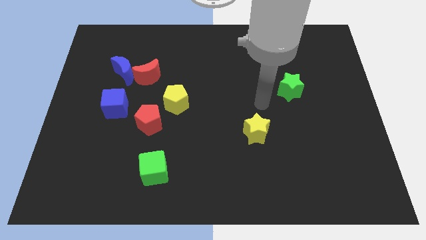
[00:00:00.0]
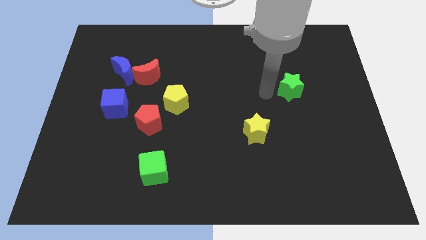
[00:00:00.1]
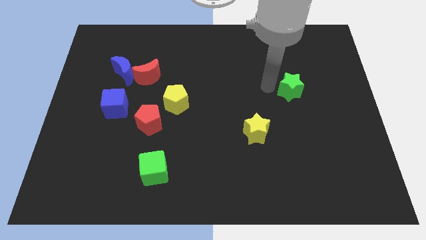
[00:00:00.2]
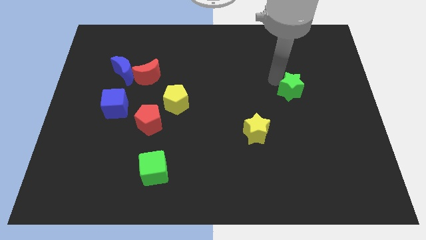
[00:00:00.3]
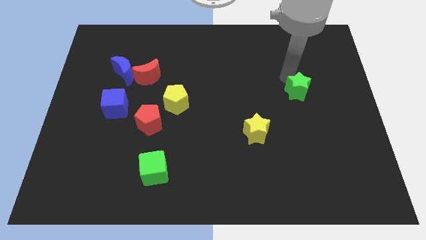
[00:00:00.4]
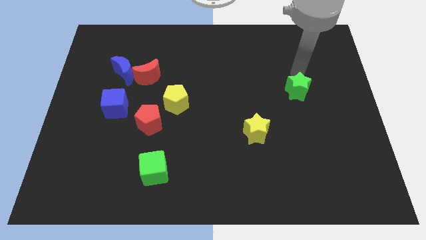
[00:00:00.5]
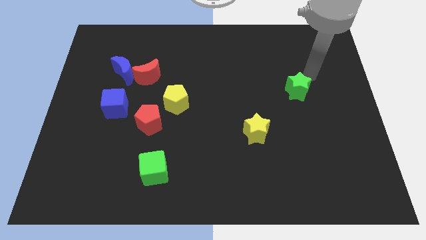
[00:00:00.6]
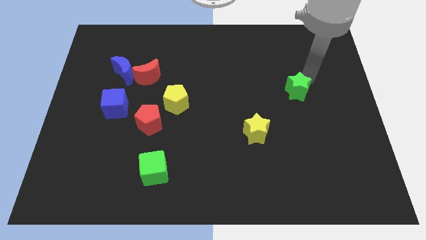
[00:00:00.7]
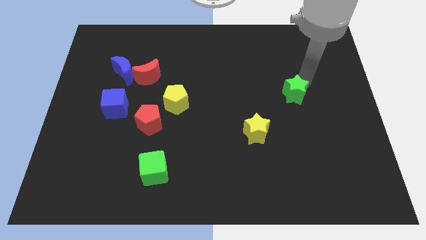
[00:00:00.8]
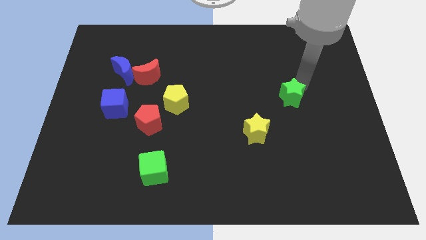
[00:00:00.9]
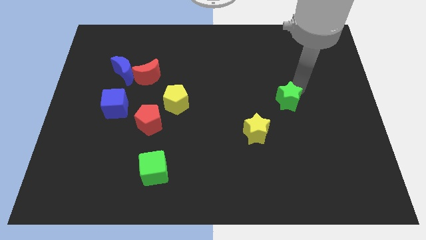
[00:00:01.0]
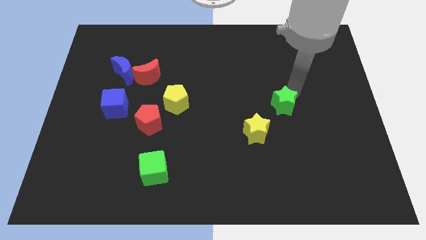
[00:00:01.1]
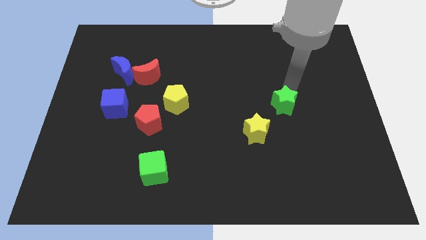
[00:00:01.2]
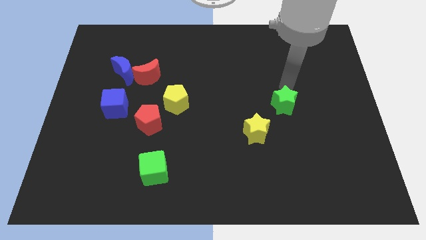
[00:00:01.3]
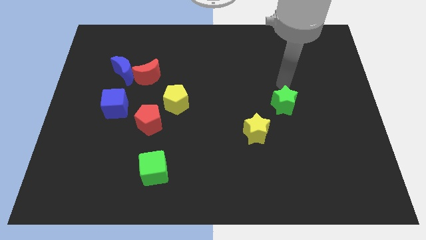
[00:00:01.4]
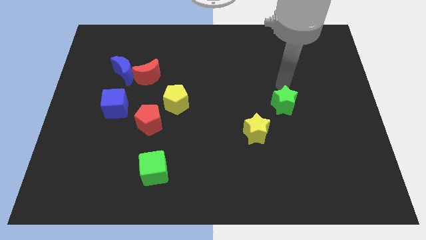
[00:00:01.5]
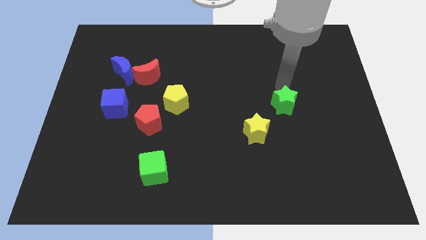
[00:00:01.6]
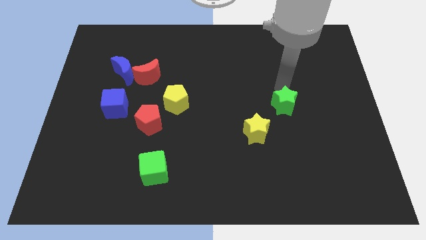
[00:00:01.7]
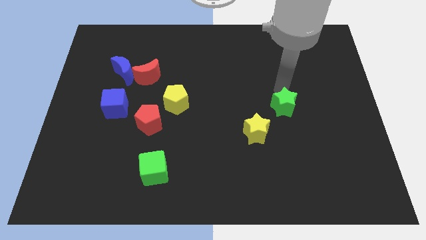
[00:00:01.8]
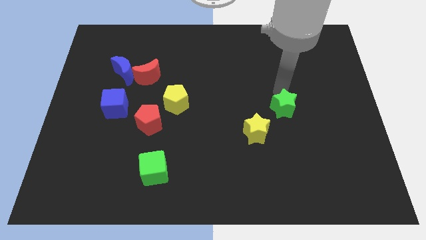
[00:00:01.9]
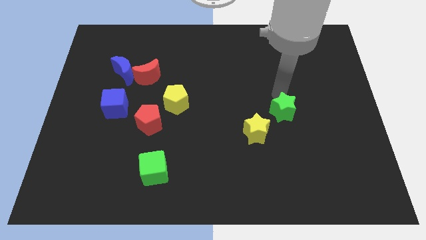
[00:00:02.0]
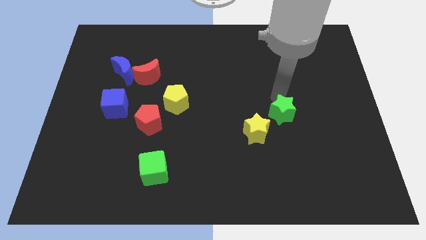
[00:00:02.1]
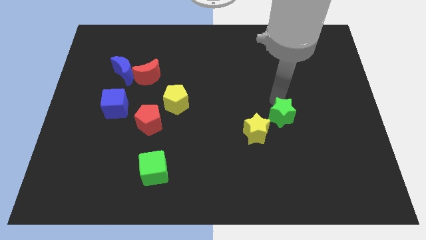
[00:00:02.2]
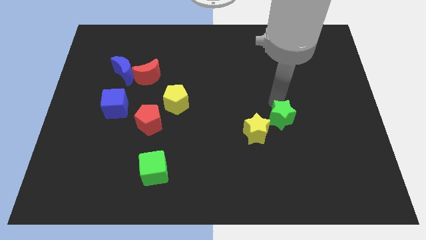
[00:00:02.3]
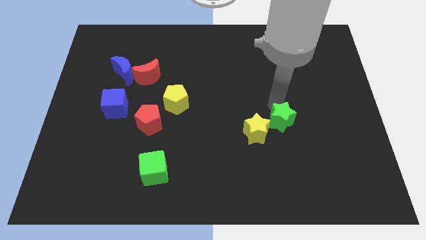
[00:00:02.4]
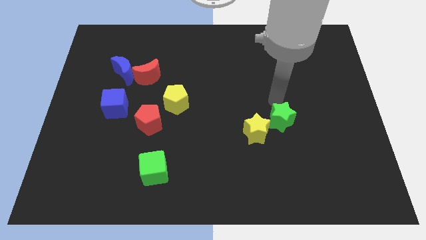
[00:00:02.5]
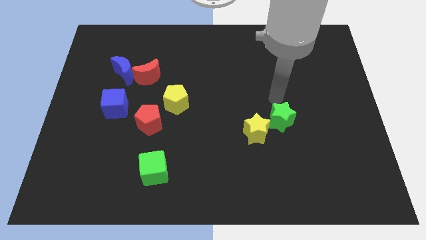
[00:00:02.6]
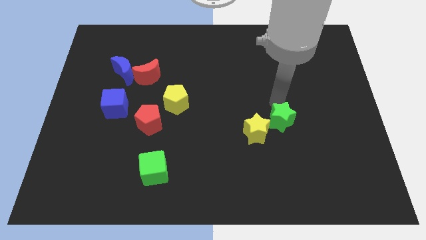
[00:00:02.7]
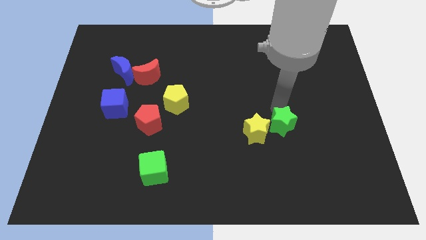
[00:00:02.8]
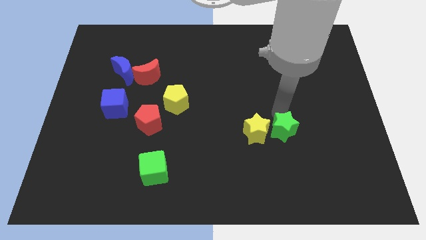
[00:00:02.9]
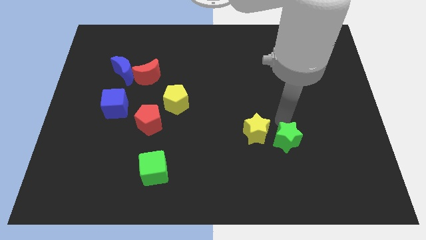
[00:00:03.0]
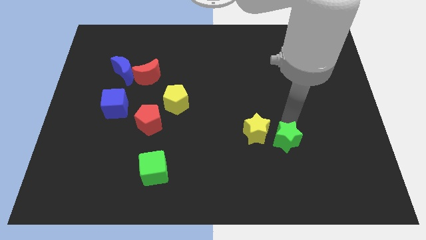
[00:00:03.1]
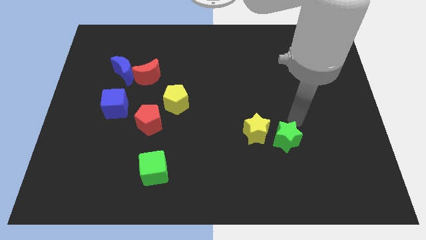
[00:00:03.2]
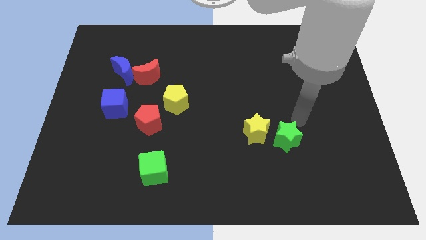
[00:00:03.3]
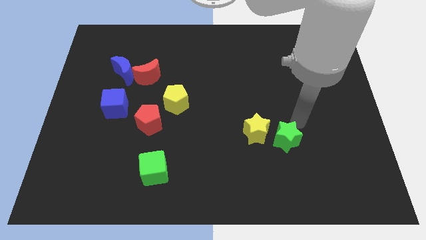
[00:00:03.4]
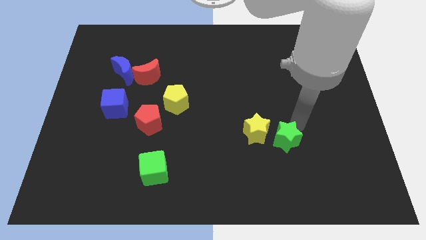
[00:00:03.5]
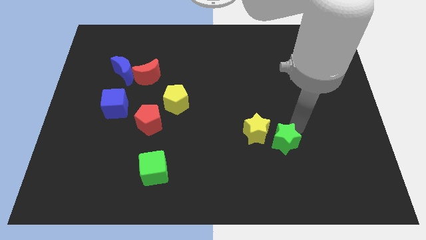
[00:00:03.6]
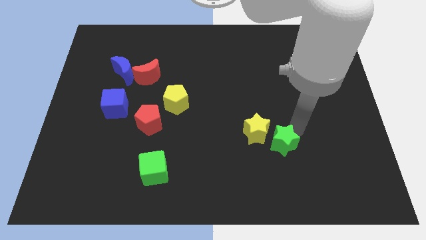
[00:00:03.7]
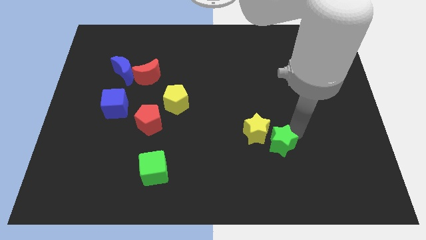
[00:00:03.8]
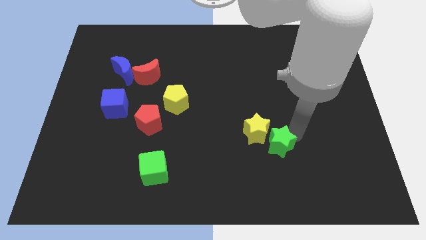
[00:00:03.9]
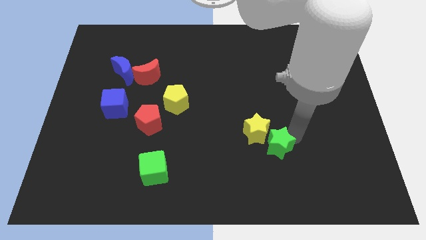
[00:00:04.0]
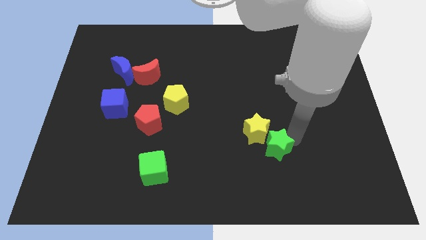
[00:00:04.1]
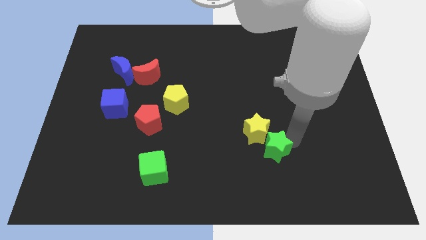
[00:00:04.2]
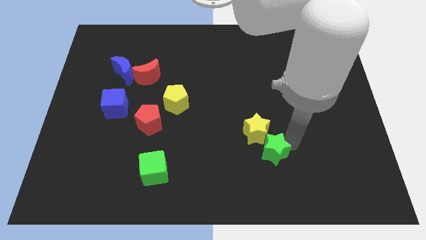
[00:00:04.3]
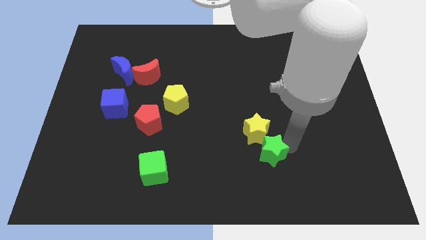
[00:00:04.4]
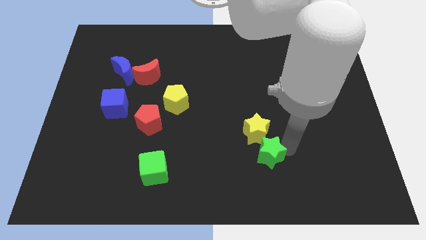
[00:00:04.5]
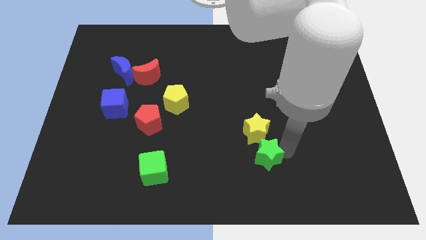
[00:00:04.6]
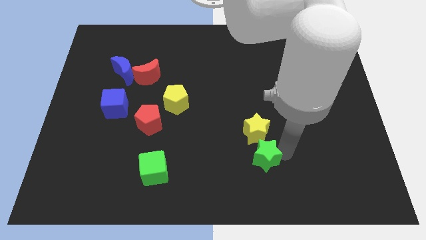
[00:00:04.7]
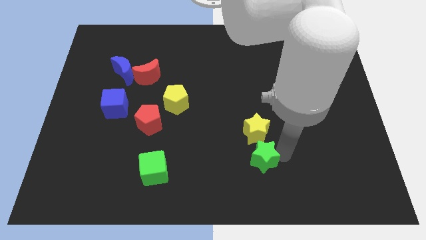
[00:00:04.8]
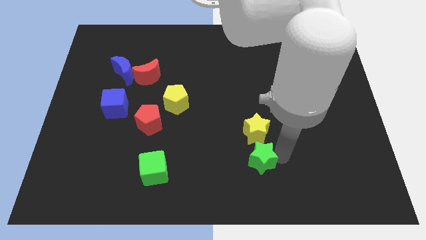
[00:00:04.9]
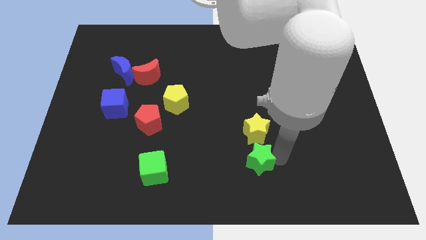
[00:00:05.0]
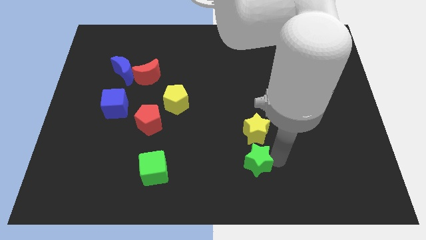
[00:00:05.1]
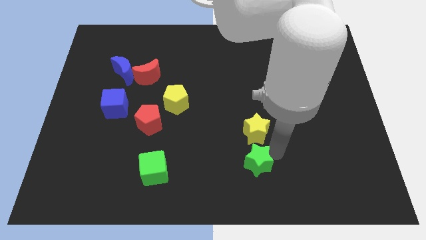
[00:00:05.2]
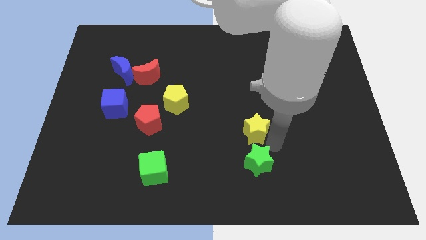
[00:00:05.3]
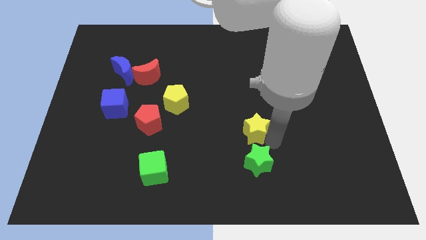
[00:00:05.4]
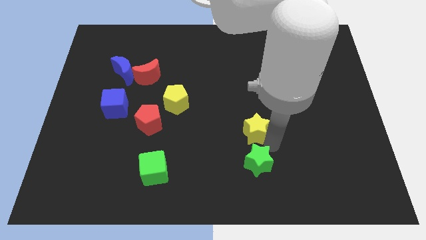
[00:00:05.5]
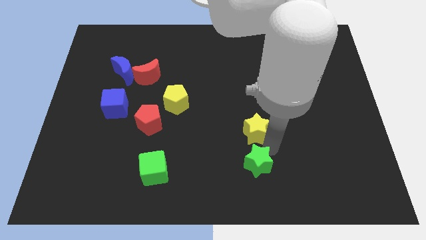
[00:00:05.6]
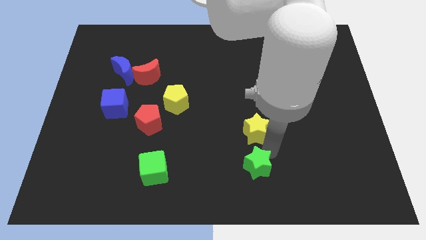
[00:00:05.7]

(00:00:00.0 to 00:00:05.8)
push the green star to the bottom side

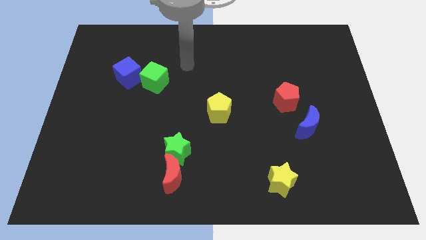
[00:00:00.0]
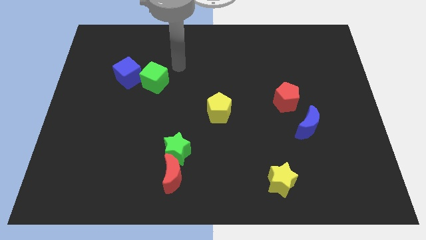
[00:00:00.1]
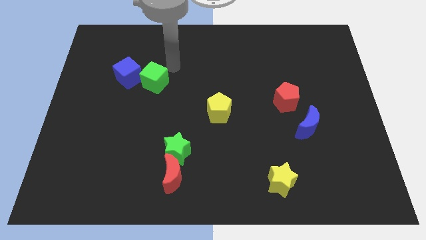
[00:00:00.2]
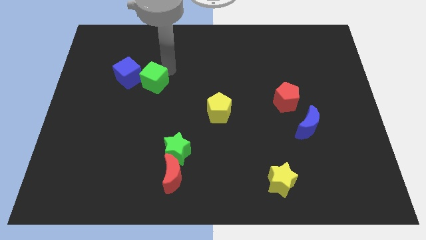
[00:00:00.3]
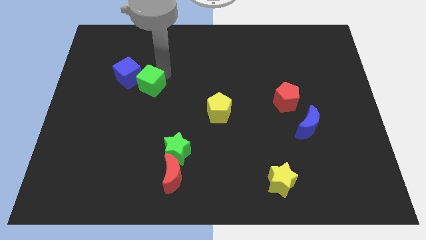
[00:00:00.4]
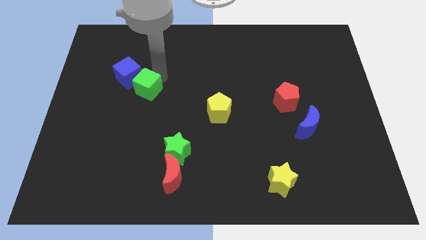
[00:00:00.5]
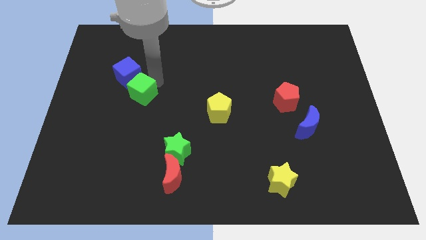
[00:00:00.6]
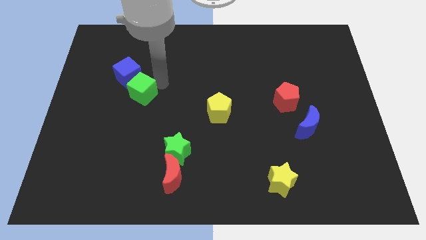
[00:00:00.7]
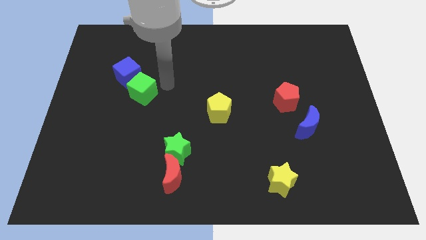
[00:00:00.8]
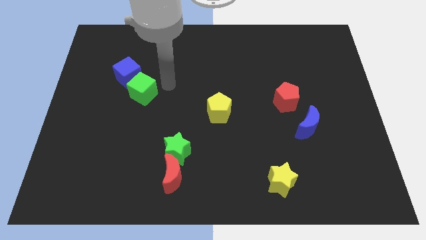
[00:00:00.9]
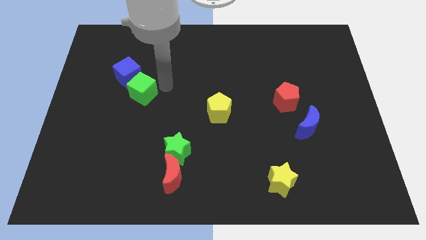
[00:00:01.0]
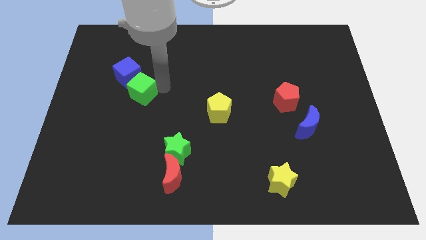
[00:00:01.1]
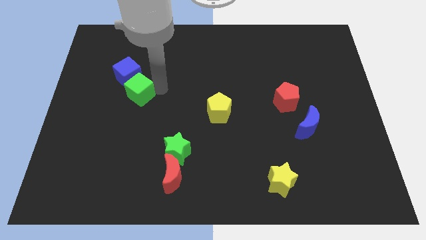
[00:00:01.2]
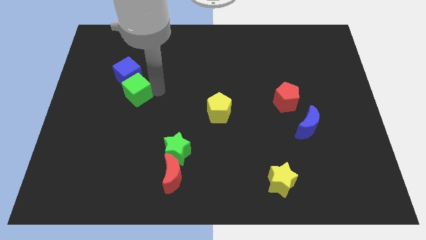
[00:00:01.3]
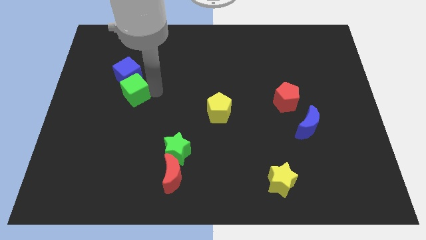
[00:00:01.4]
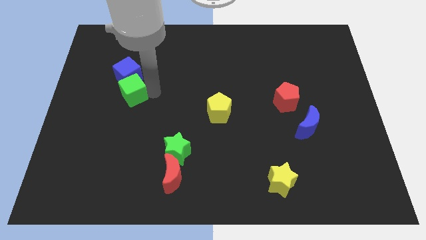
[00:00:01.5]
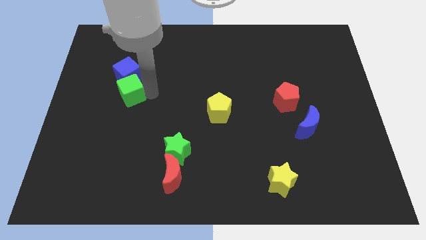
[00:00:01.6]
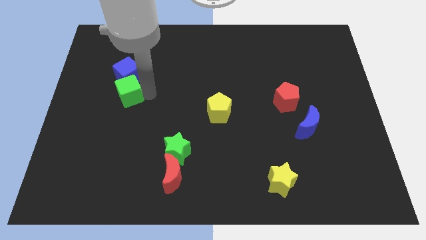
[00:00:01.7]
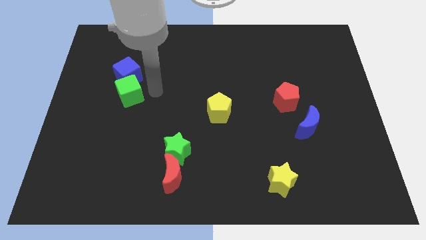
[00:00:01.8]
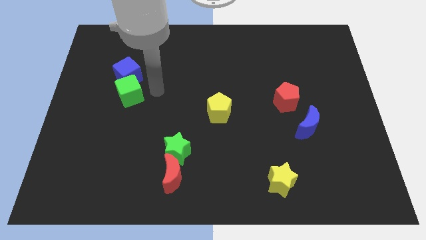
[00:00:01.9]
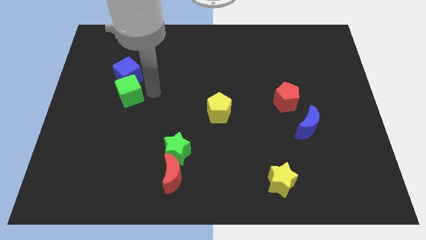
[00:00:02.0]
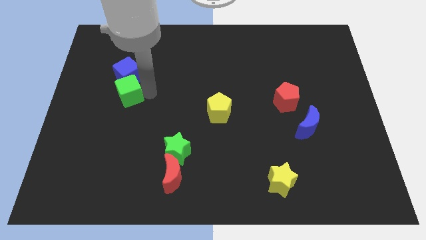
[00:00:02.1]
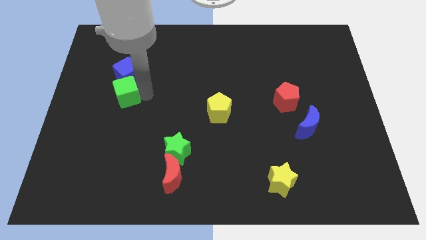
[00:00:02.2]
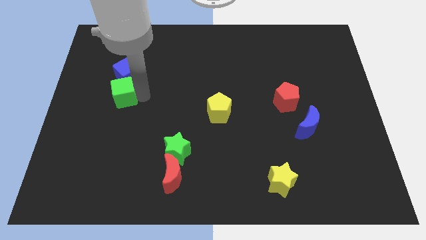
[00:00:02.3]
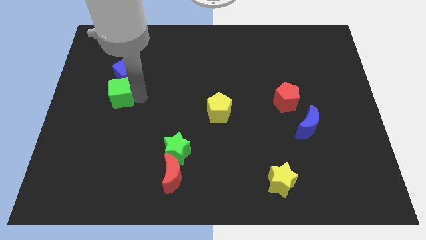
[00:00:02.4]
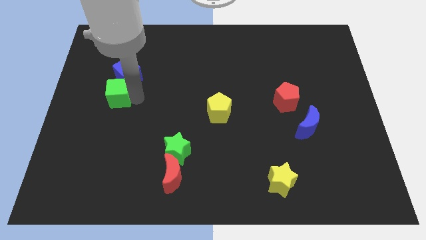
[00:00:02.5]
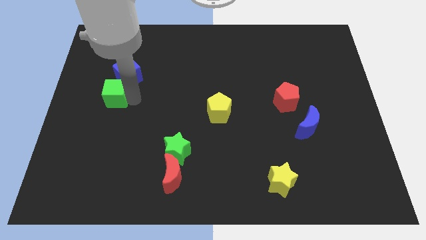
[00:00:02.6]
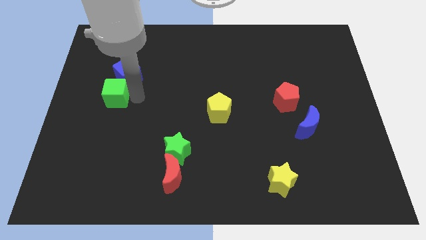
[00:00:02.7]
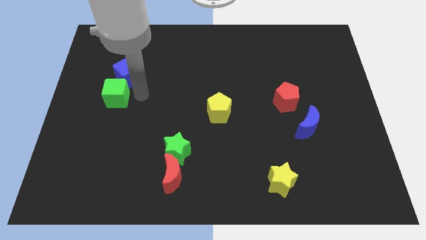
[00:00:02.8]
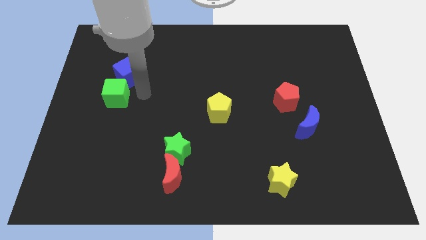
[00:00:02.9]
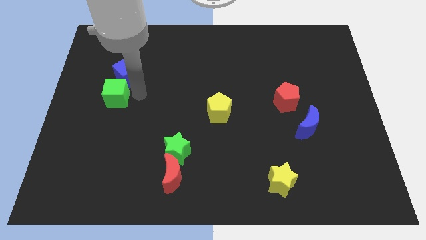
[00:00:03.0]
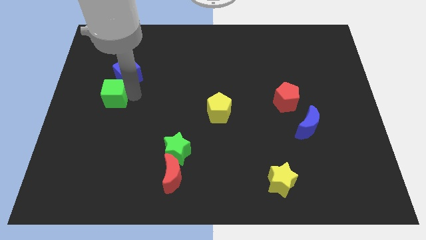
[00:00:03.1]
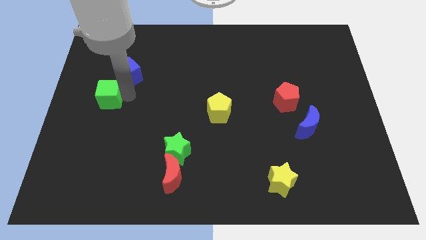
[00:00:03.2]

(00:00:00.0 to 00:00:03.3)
move the green cube to the center left
